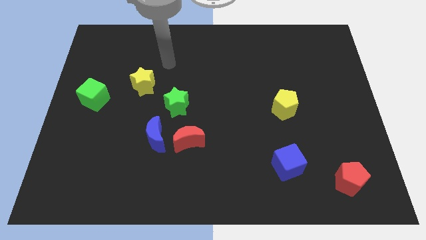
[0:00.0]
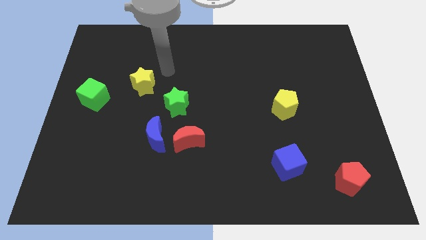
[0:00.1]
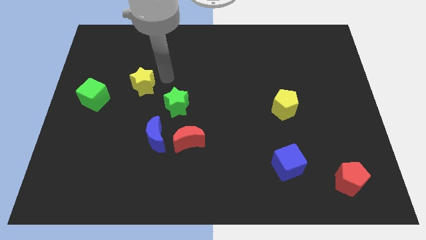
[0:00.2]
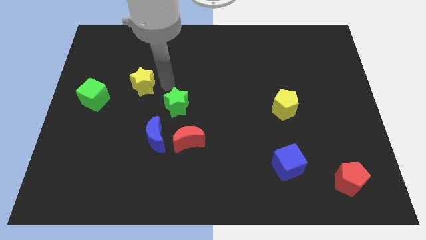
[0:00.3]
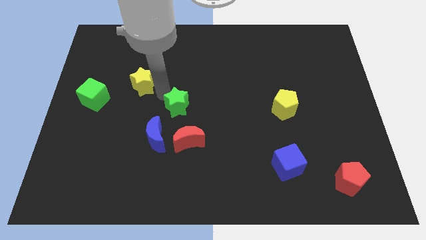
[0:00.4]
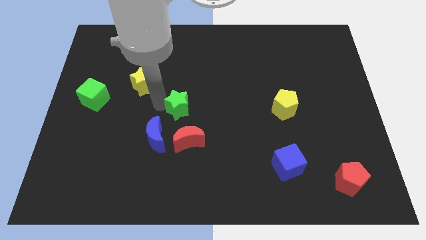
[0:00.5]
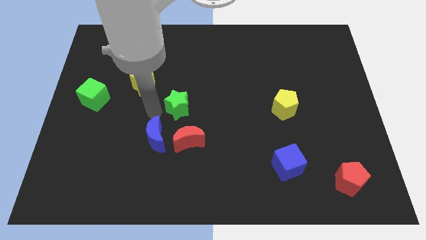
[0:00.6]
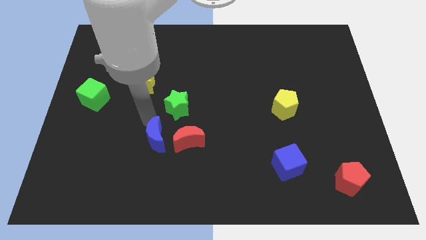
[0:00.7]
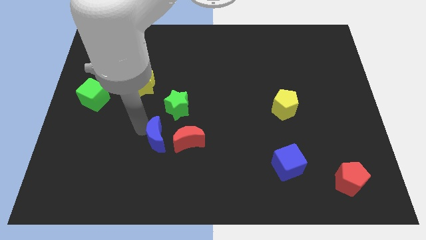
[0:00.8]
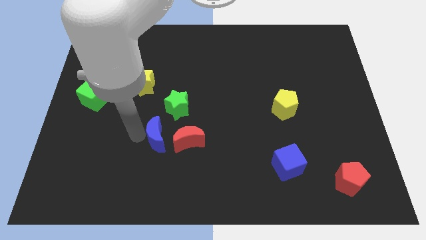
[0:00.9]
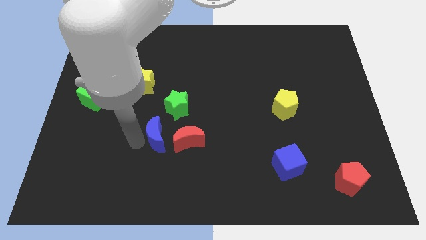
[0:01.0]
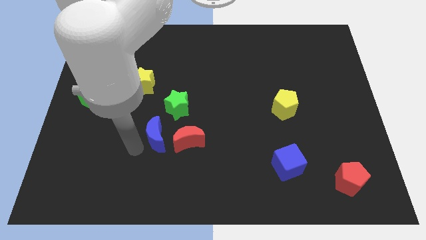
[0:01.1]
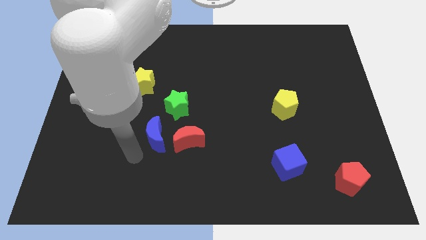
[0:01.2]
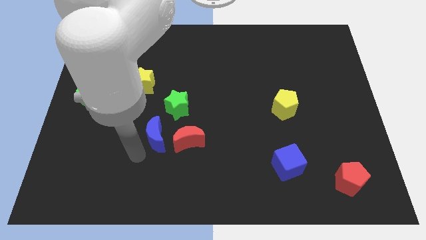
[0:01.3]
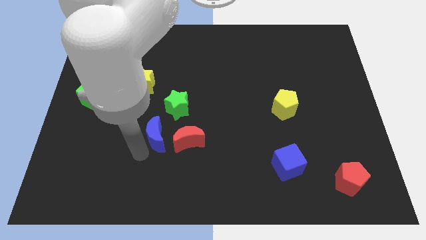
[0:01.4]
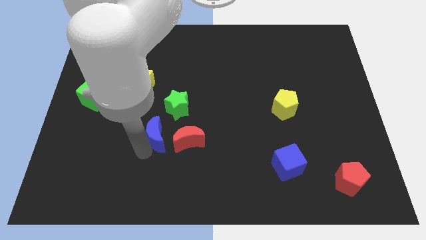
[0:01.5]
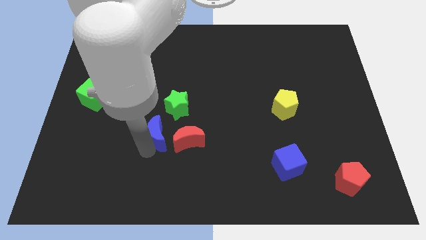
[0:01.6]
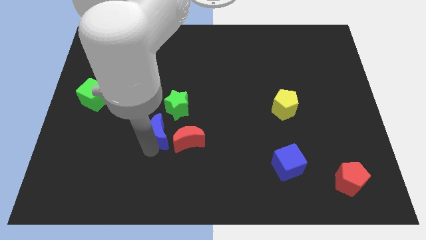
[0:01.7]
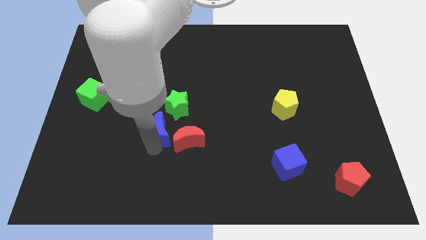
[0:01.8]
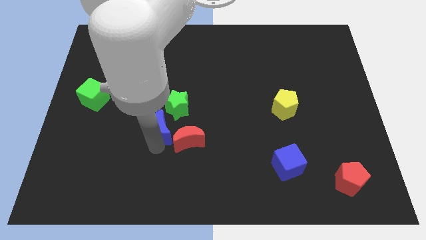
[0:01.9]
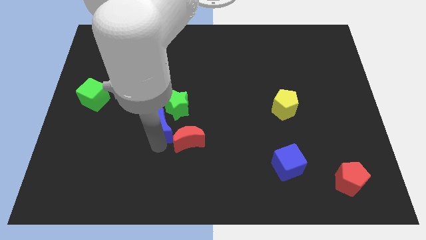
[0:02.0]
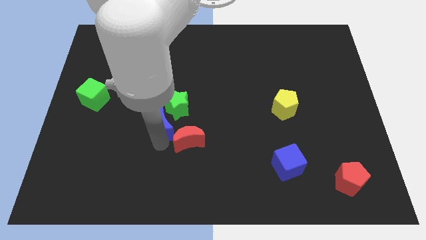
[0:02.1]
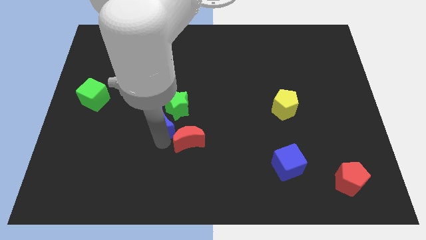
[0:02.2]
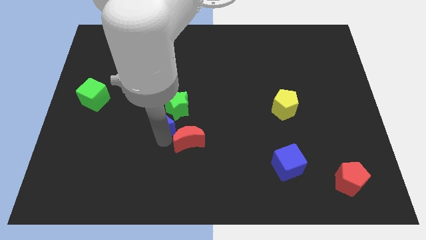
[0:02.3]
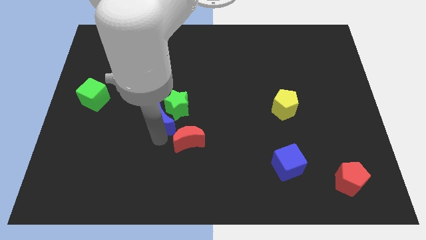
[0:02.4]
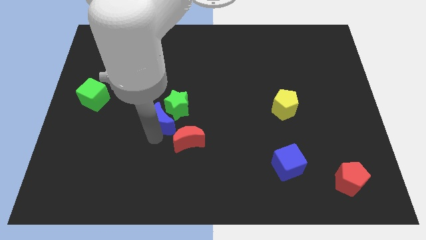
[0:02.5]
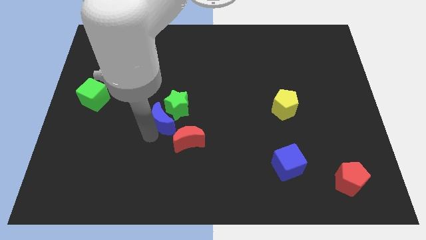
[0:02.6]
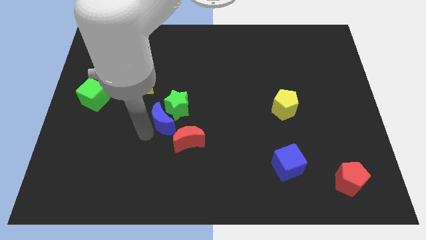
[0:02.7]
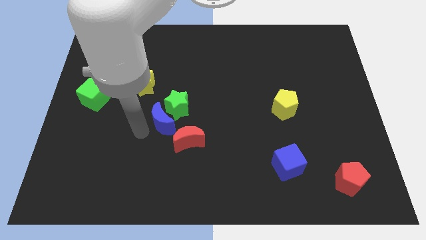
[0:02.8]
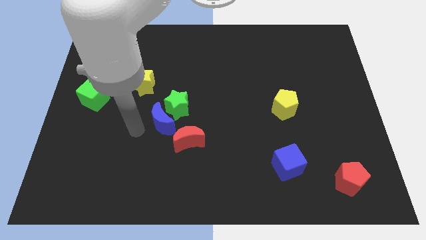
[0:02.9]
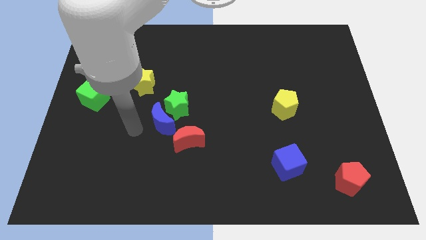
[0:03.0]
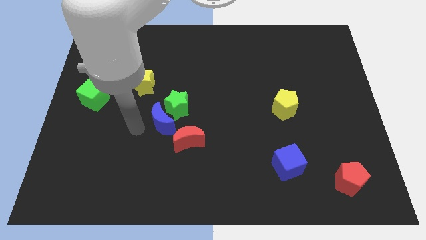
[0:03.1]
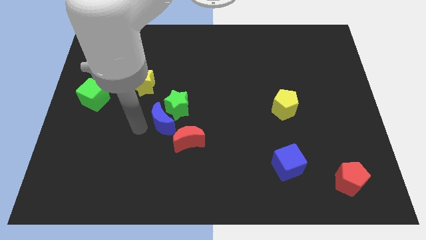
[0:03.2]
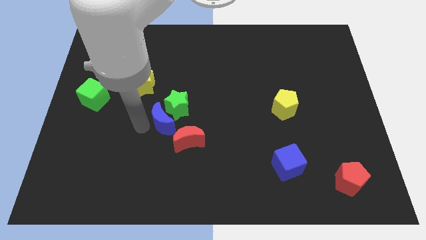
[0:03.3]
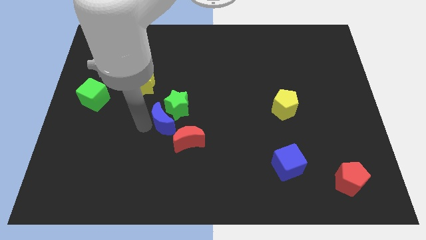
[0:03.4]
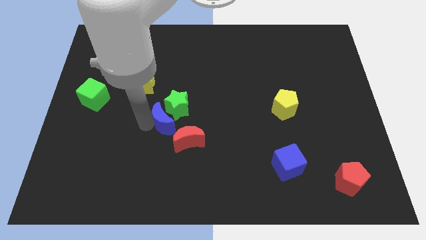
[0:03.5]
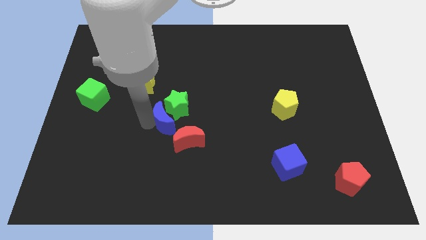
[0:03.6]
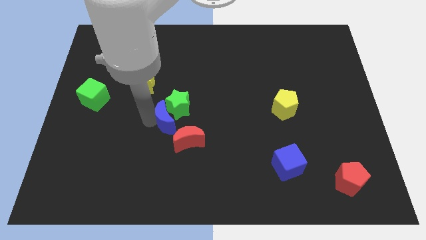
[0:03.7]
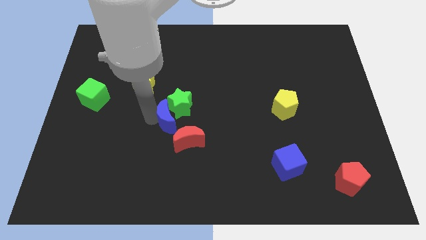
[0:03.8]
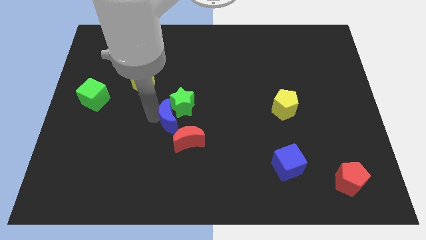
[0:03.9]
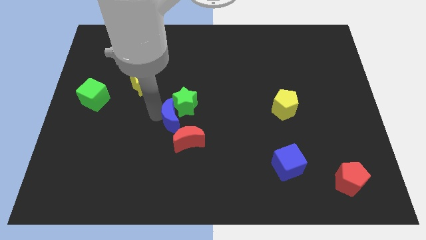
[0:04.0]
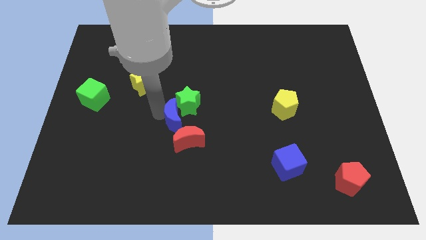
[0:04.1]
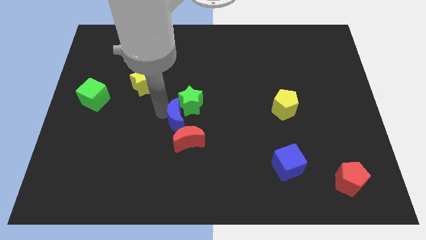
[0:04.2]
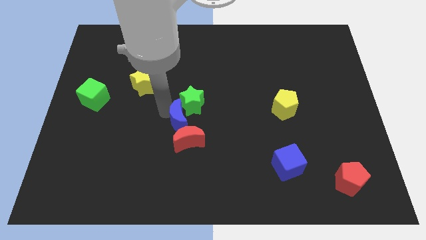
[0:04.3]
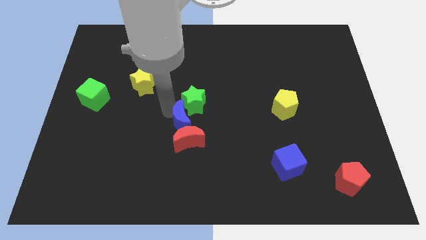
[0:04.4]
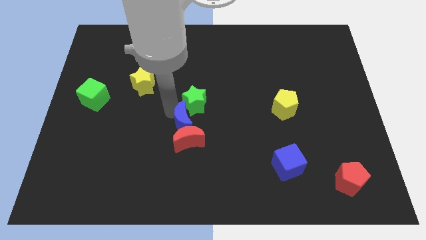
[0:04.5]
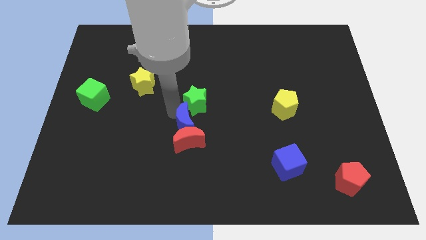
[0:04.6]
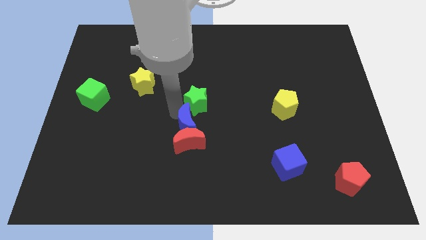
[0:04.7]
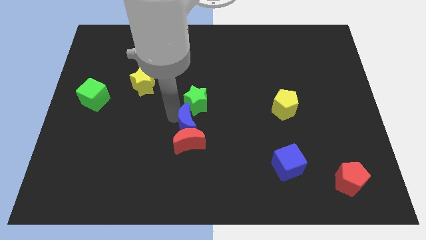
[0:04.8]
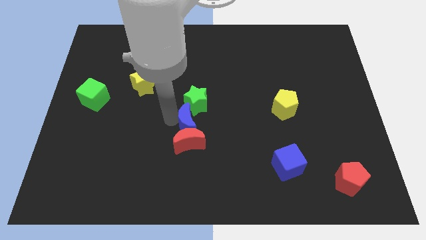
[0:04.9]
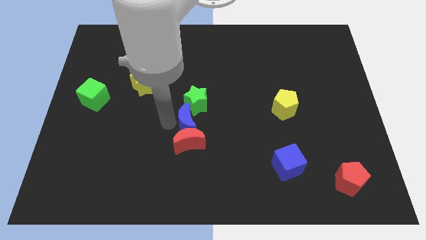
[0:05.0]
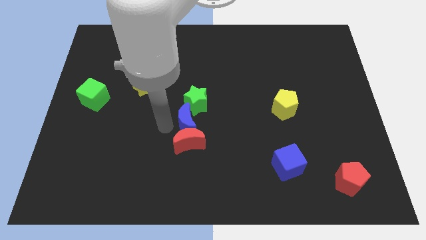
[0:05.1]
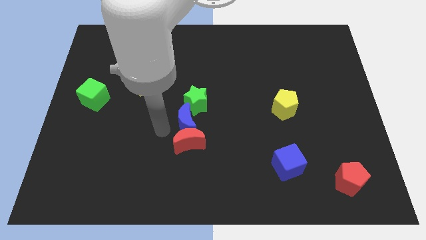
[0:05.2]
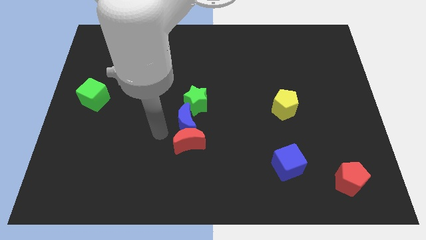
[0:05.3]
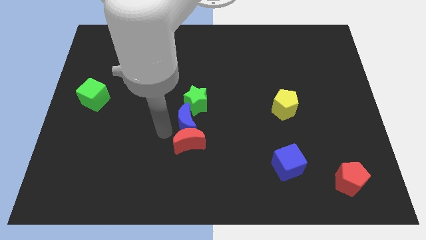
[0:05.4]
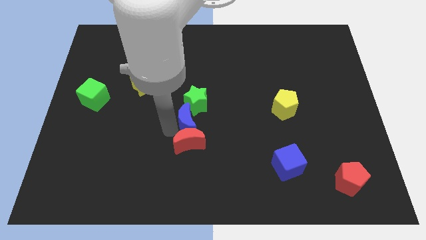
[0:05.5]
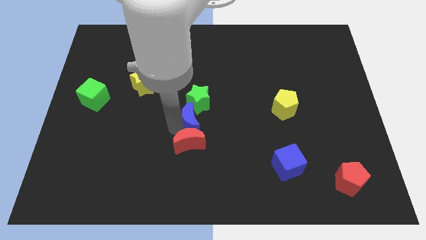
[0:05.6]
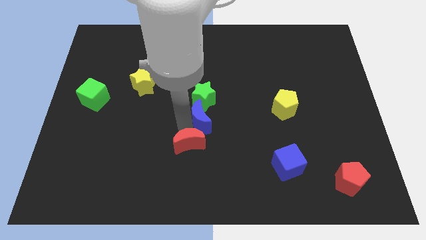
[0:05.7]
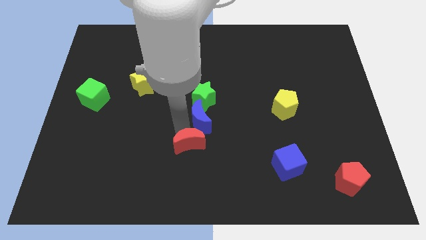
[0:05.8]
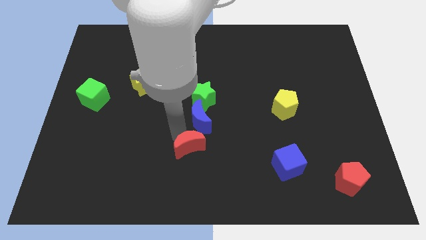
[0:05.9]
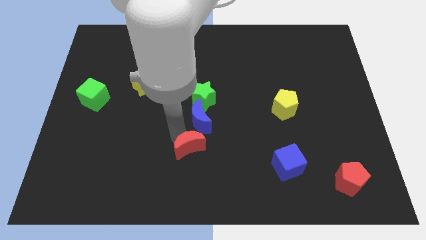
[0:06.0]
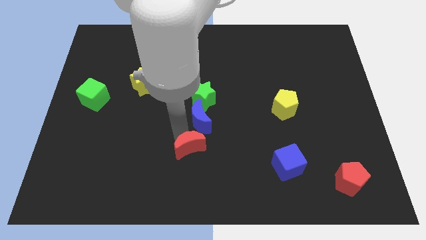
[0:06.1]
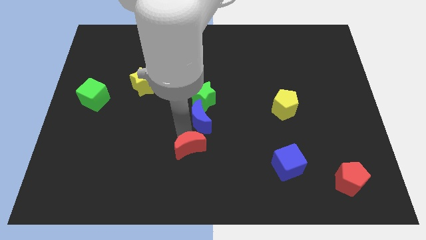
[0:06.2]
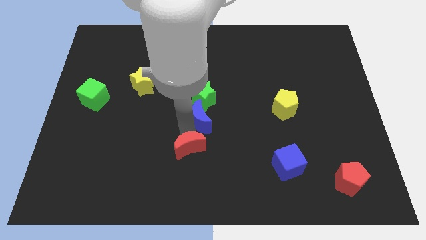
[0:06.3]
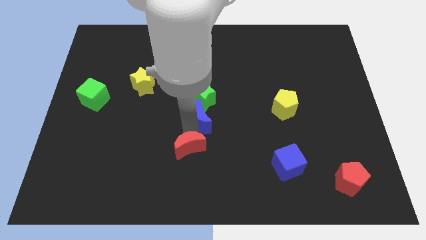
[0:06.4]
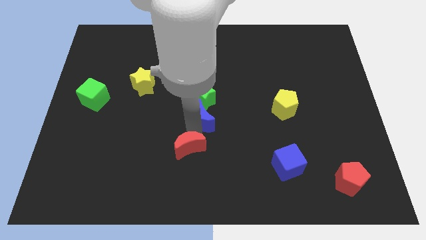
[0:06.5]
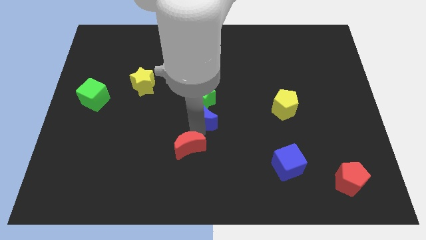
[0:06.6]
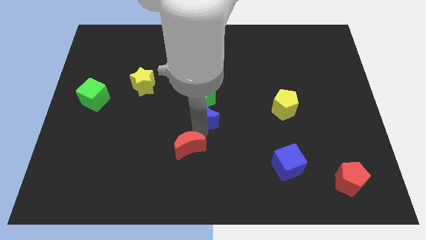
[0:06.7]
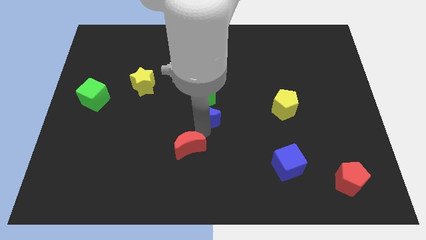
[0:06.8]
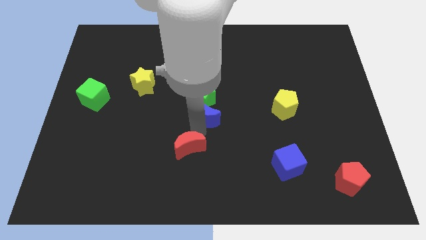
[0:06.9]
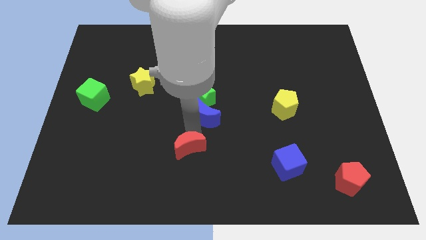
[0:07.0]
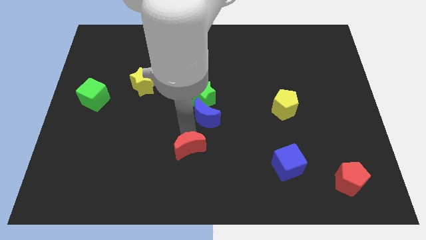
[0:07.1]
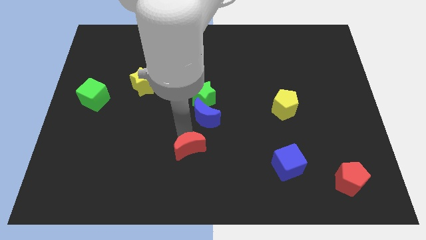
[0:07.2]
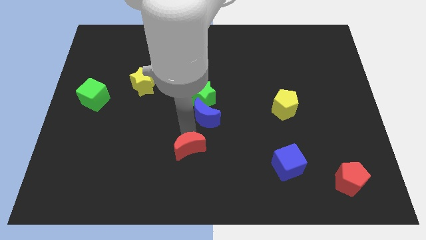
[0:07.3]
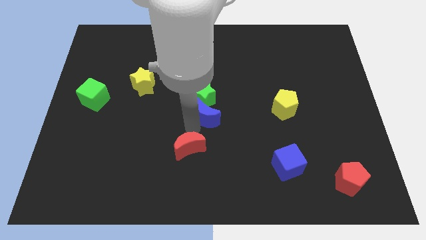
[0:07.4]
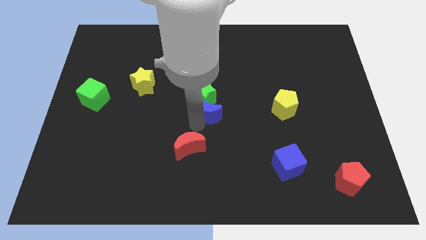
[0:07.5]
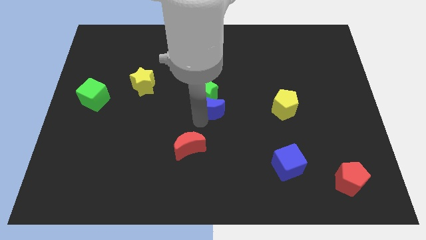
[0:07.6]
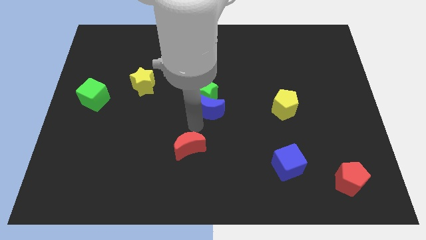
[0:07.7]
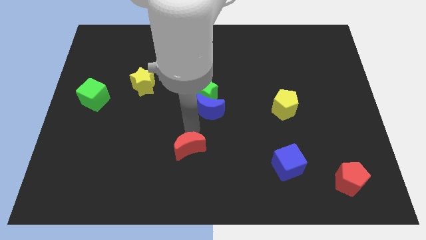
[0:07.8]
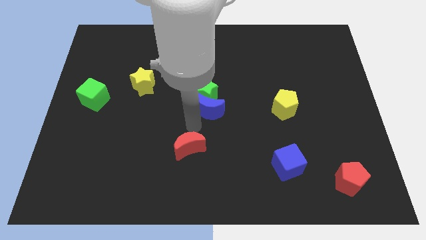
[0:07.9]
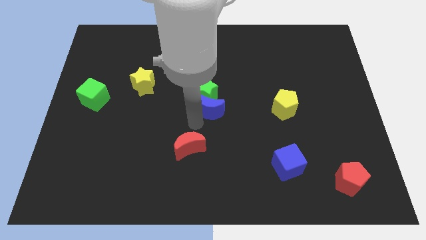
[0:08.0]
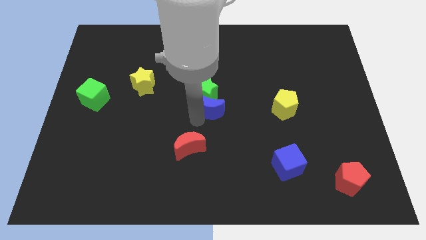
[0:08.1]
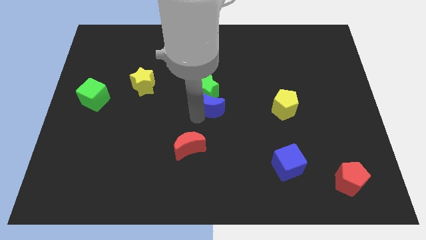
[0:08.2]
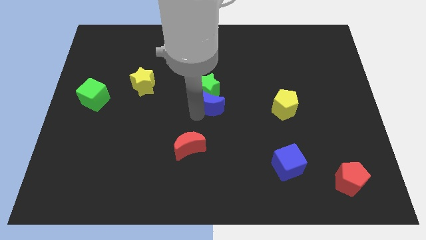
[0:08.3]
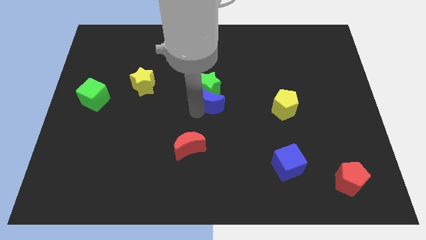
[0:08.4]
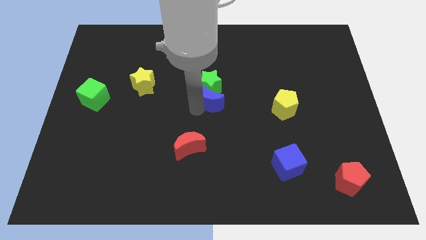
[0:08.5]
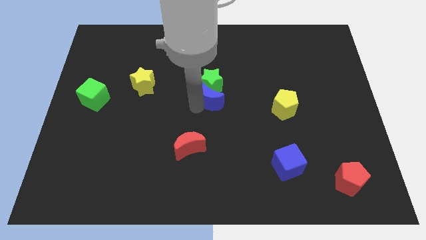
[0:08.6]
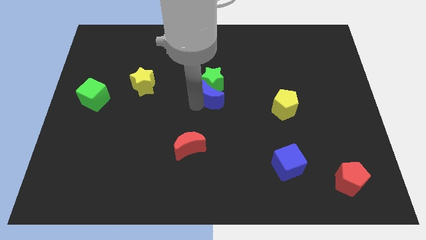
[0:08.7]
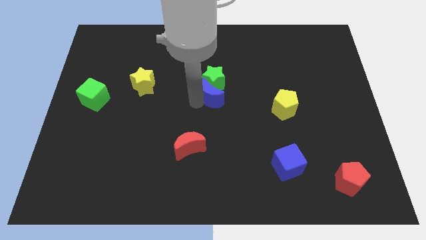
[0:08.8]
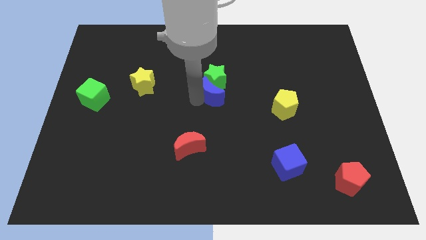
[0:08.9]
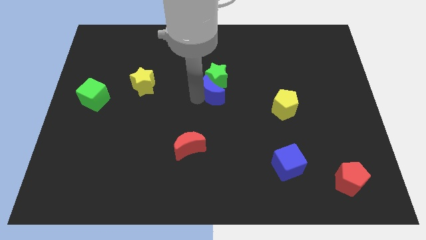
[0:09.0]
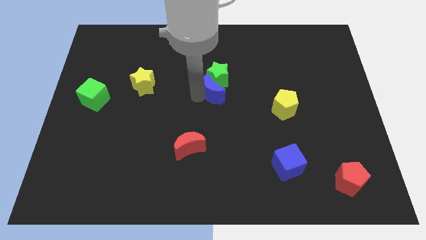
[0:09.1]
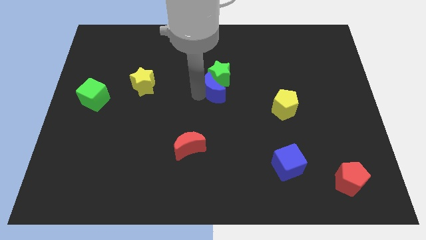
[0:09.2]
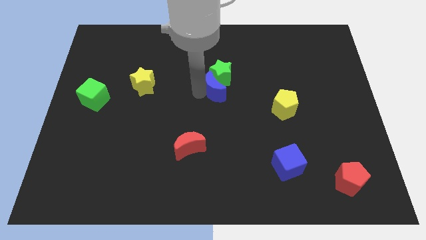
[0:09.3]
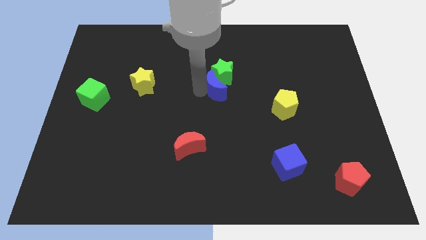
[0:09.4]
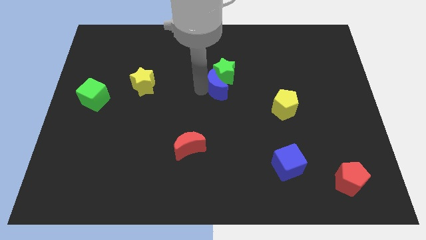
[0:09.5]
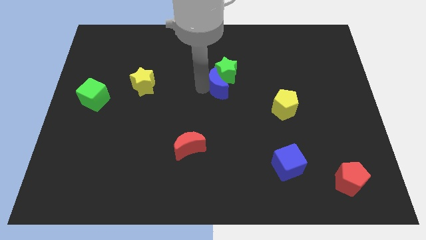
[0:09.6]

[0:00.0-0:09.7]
slide the blue moon upwards and then right
